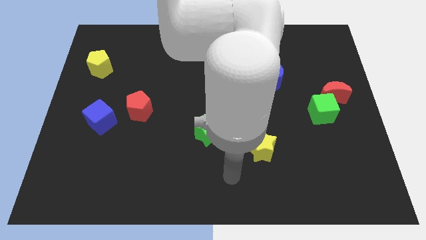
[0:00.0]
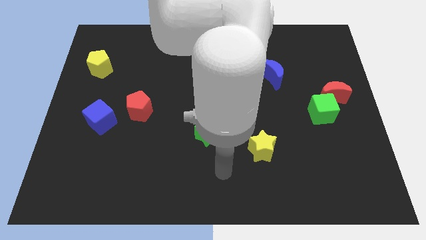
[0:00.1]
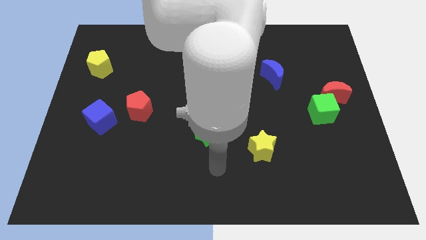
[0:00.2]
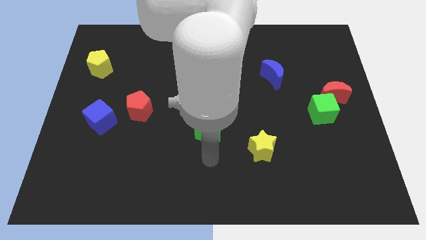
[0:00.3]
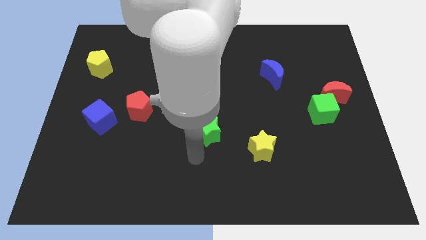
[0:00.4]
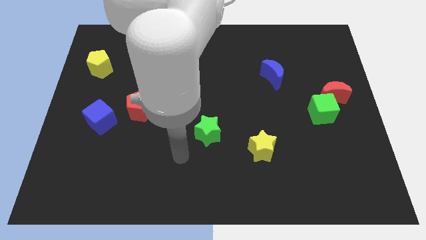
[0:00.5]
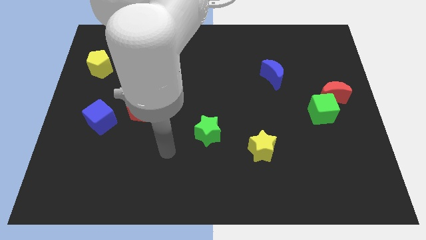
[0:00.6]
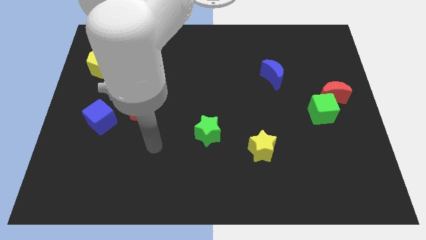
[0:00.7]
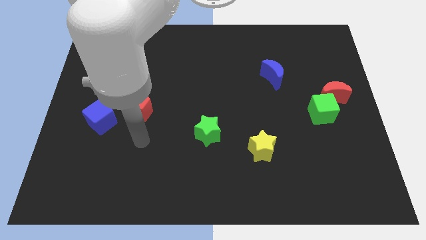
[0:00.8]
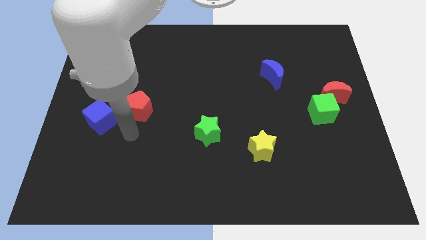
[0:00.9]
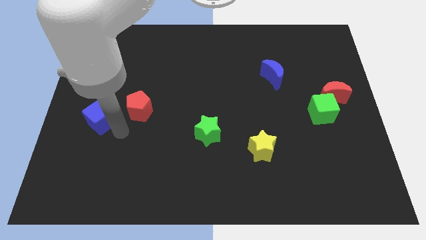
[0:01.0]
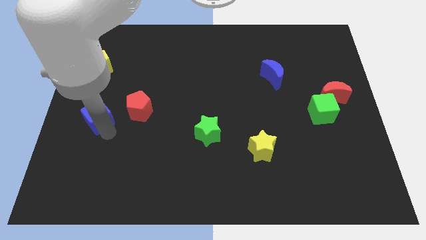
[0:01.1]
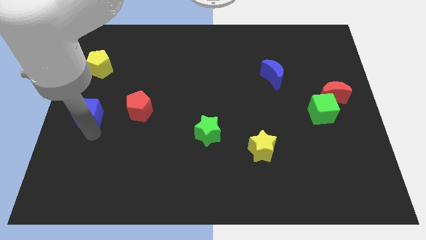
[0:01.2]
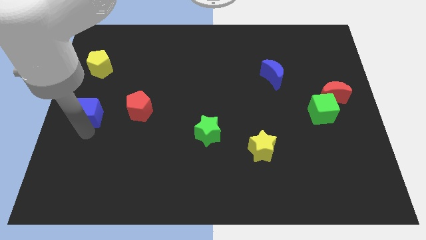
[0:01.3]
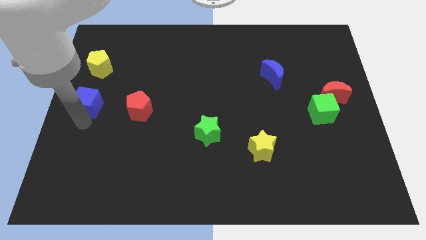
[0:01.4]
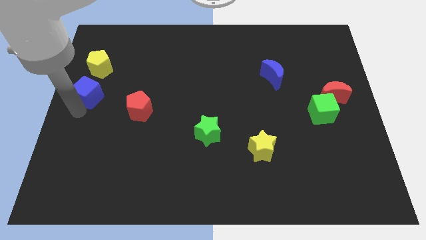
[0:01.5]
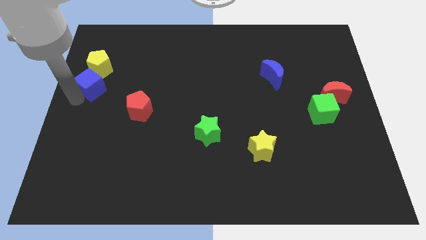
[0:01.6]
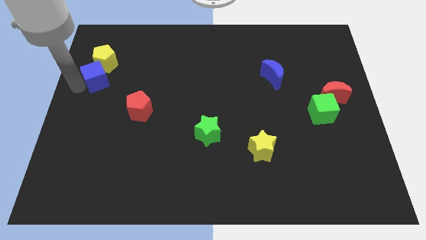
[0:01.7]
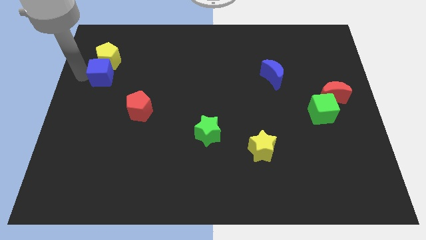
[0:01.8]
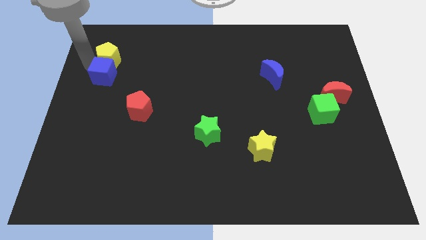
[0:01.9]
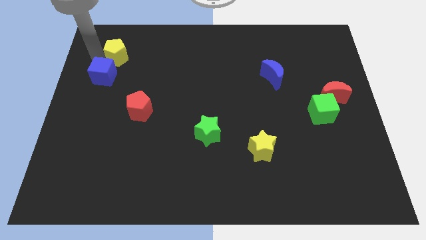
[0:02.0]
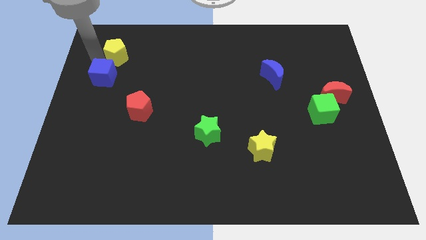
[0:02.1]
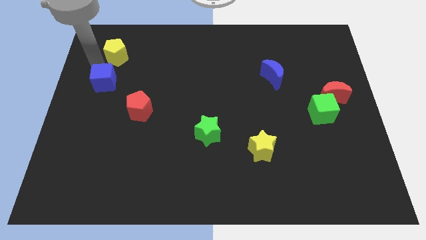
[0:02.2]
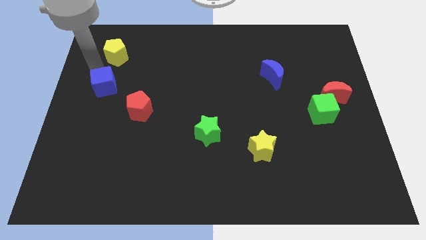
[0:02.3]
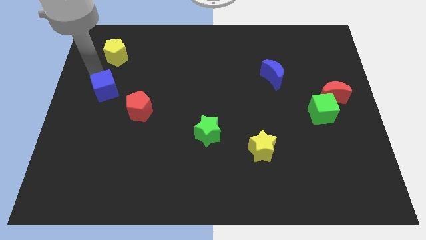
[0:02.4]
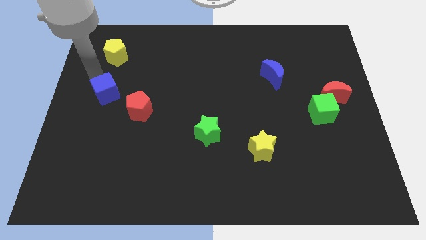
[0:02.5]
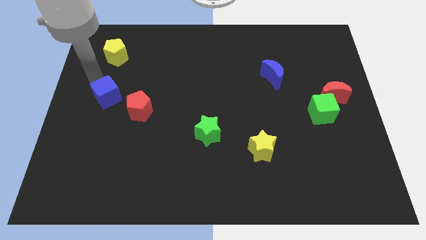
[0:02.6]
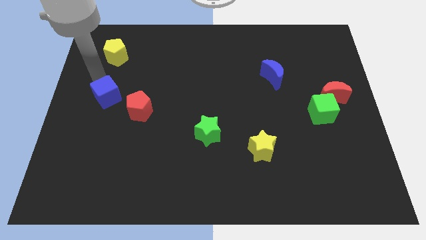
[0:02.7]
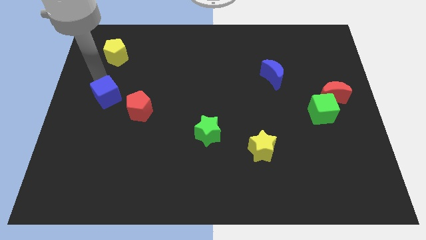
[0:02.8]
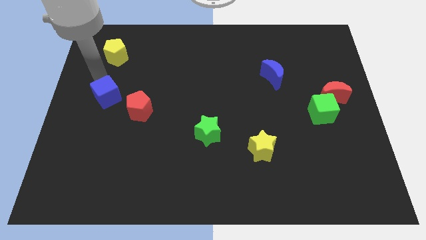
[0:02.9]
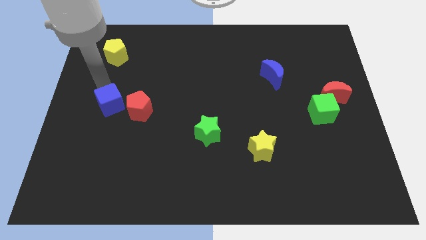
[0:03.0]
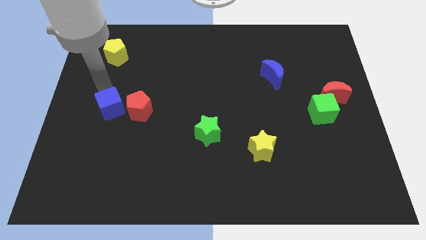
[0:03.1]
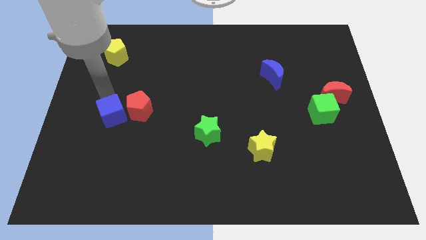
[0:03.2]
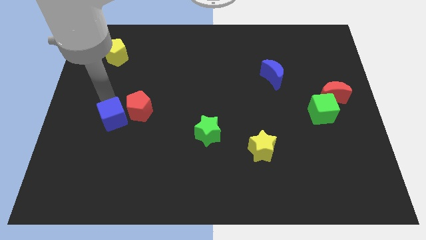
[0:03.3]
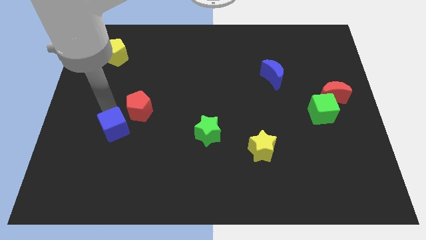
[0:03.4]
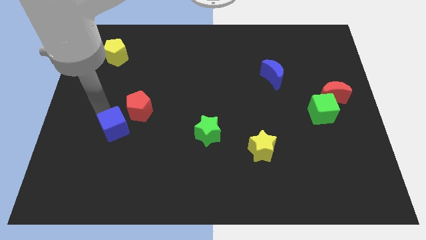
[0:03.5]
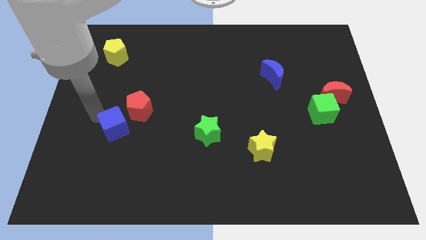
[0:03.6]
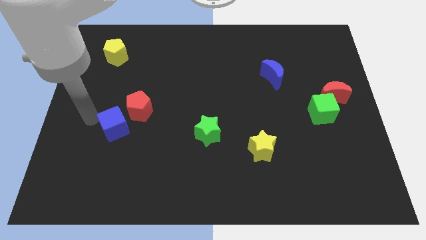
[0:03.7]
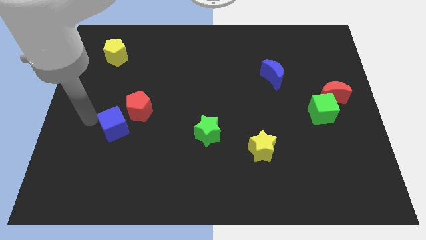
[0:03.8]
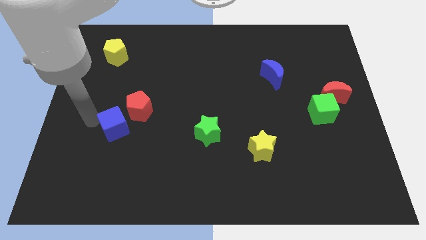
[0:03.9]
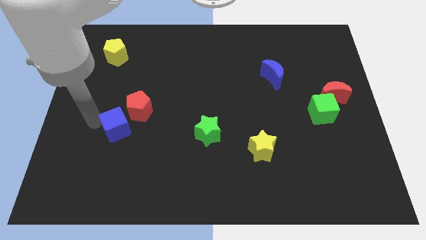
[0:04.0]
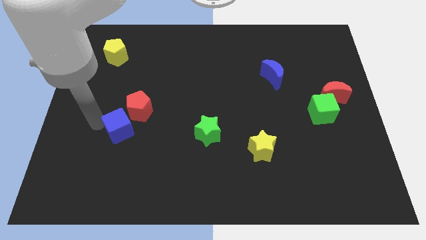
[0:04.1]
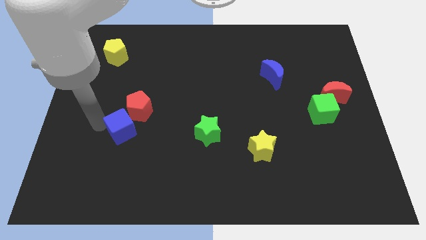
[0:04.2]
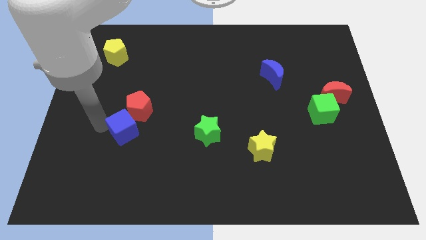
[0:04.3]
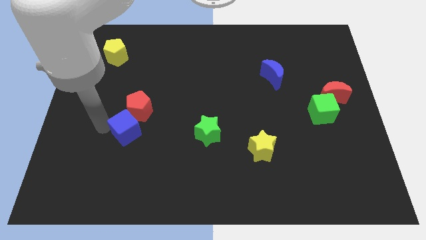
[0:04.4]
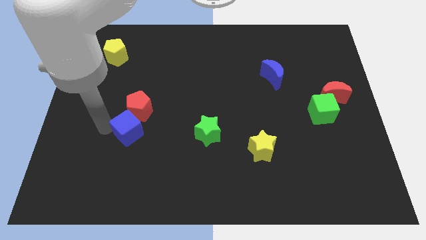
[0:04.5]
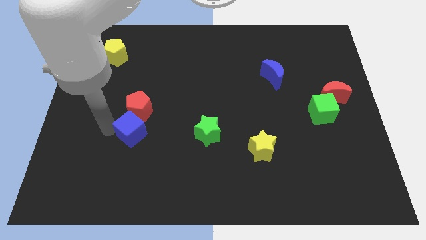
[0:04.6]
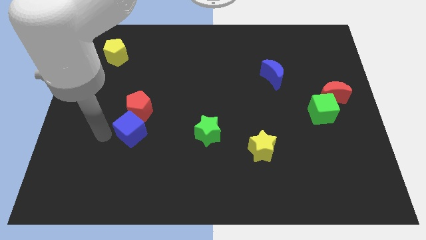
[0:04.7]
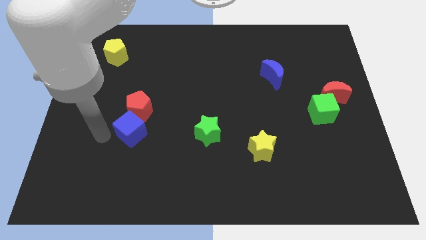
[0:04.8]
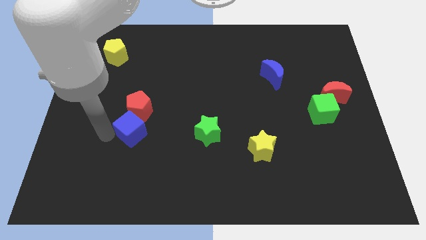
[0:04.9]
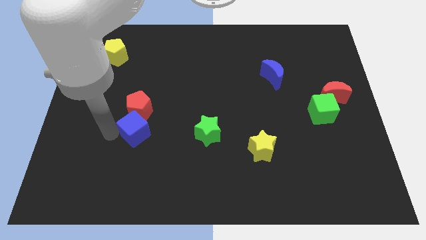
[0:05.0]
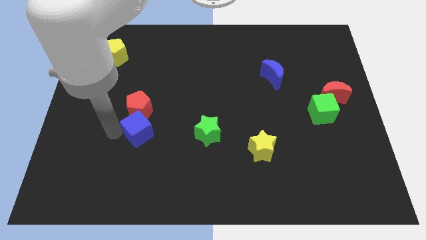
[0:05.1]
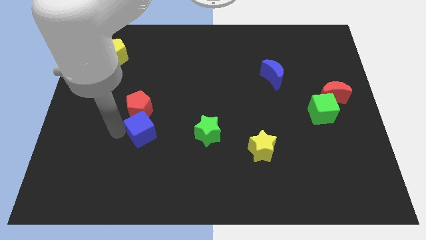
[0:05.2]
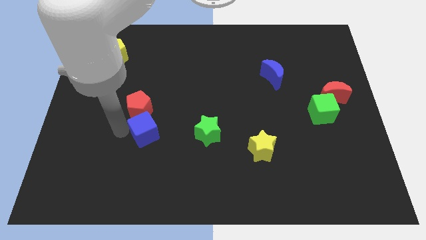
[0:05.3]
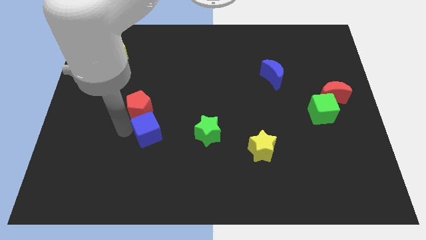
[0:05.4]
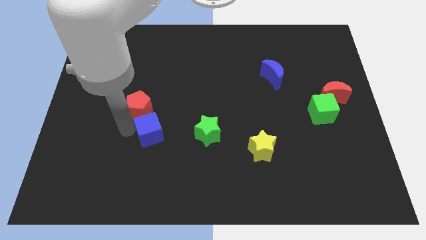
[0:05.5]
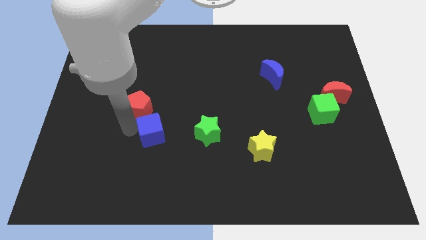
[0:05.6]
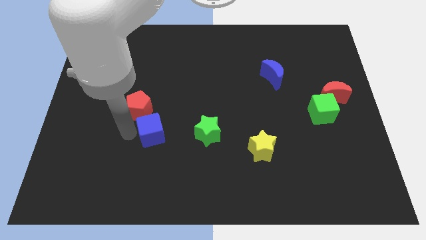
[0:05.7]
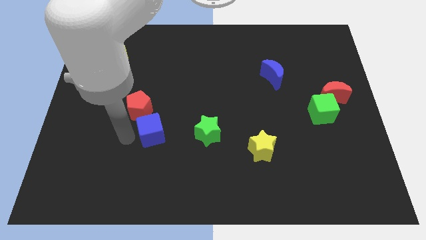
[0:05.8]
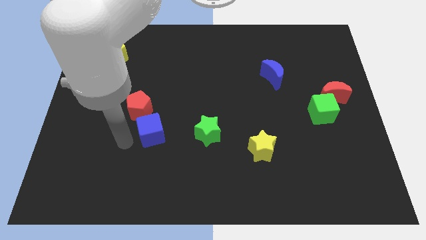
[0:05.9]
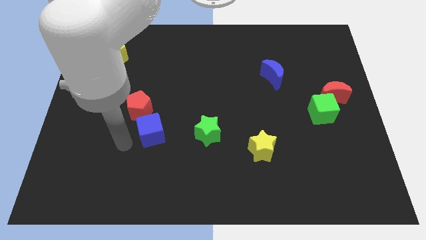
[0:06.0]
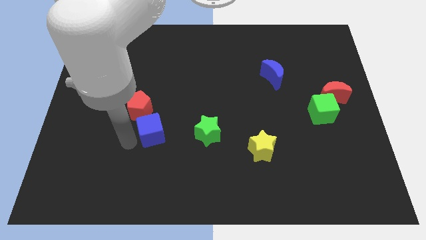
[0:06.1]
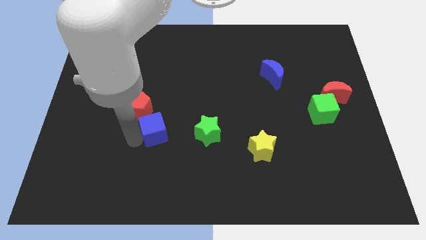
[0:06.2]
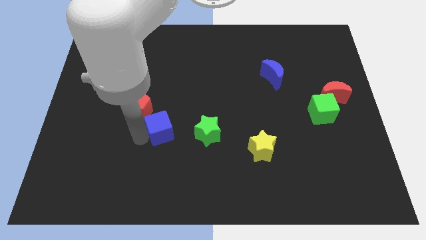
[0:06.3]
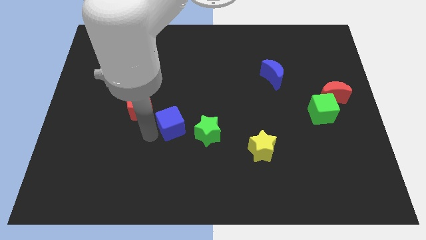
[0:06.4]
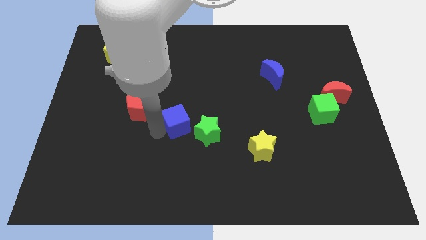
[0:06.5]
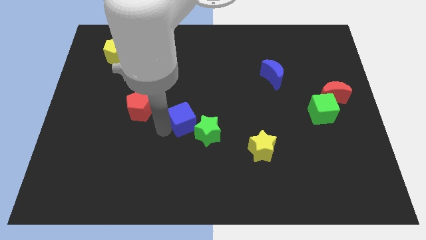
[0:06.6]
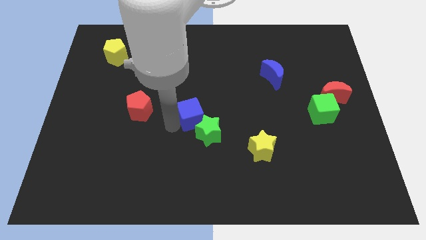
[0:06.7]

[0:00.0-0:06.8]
slide the blue cube to the right

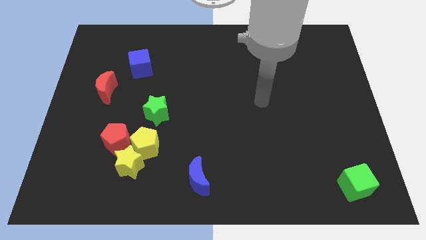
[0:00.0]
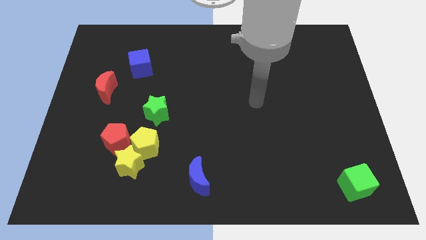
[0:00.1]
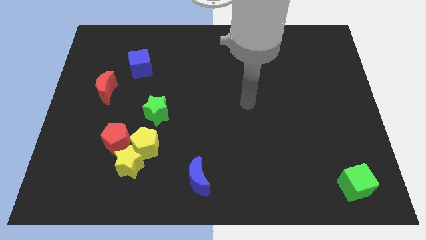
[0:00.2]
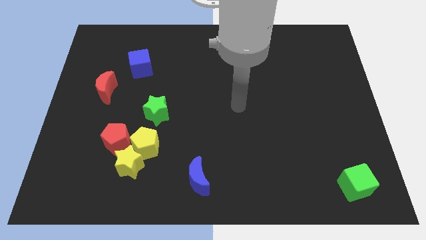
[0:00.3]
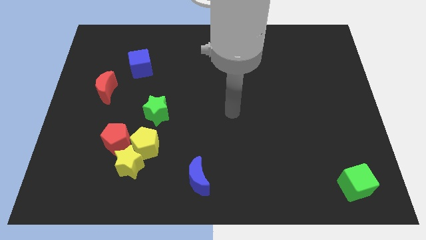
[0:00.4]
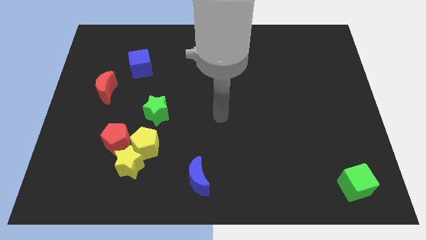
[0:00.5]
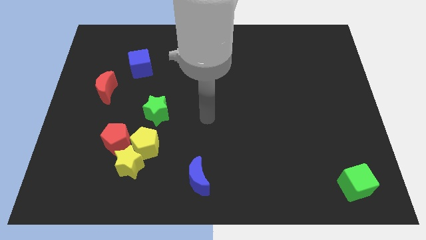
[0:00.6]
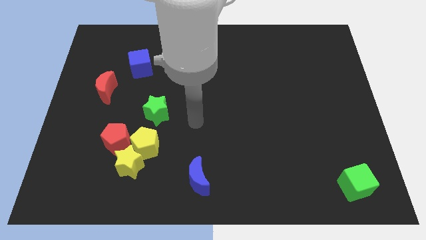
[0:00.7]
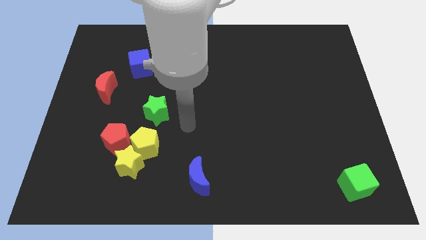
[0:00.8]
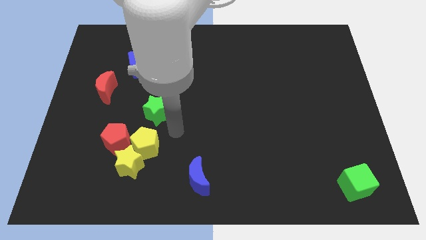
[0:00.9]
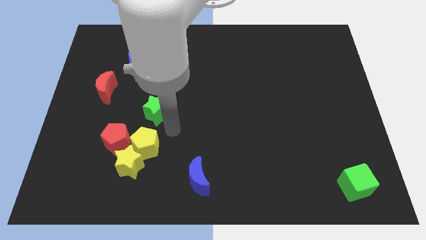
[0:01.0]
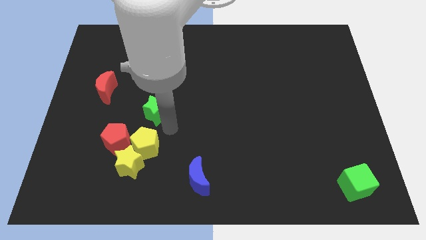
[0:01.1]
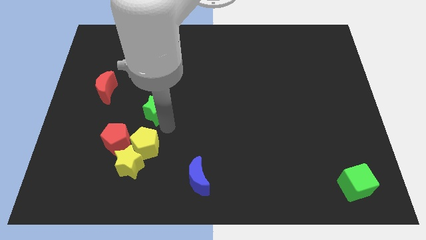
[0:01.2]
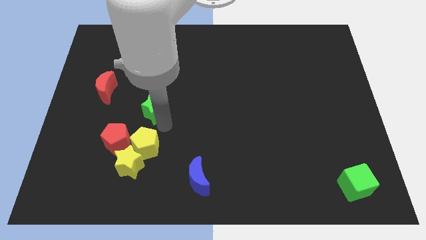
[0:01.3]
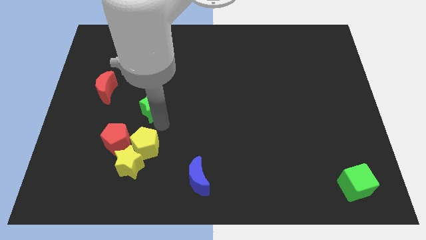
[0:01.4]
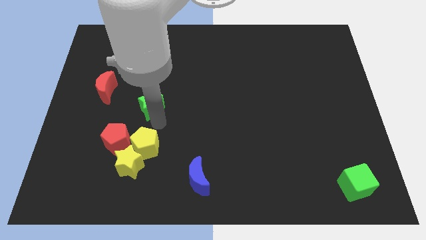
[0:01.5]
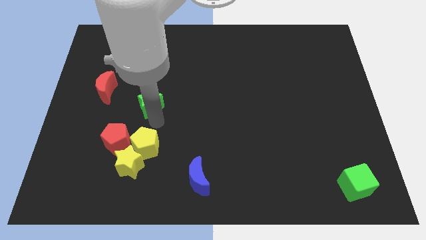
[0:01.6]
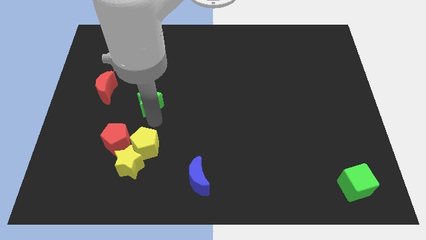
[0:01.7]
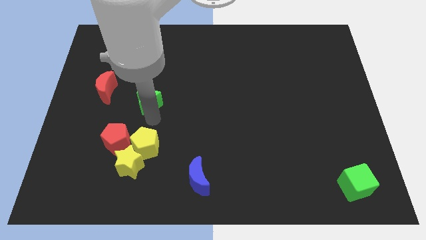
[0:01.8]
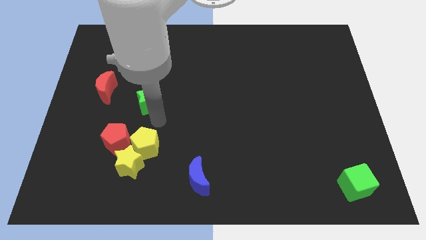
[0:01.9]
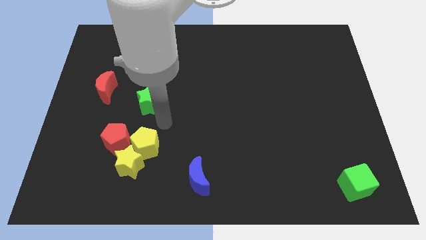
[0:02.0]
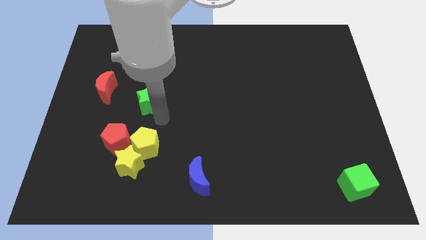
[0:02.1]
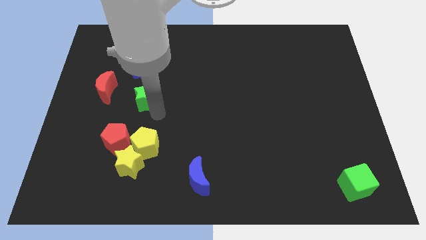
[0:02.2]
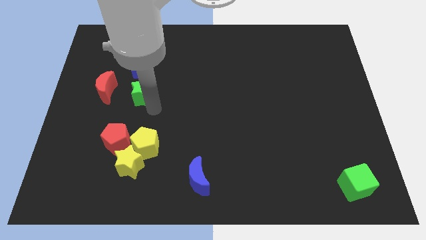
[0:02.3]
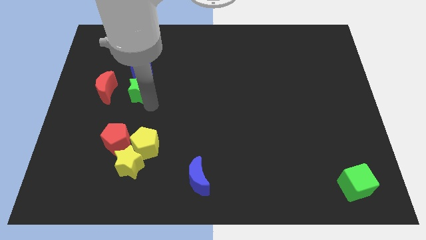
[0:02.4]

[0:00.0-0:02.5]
slide the green star a bit diagonally upwards and left
